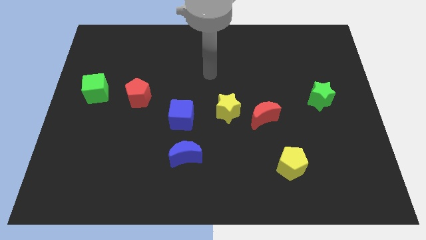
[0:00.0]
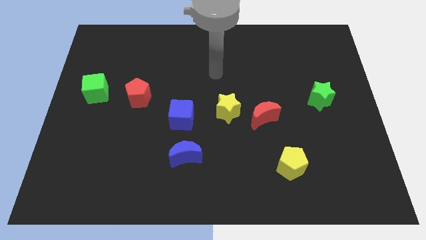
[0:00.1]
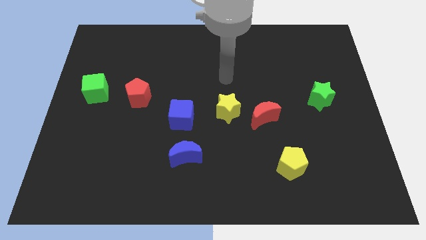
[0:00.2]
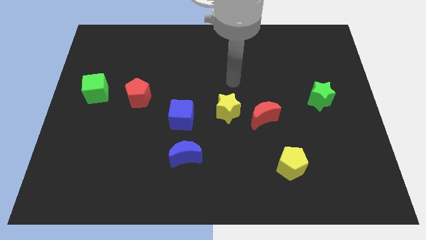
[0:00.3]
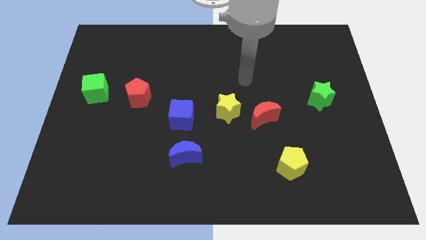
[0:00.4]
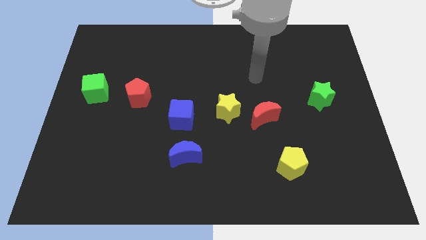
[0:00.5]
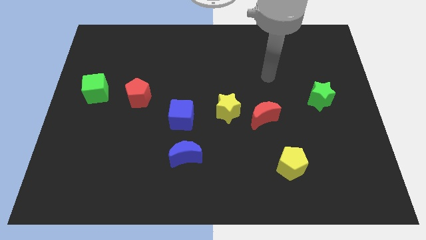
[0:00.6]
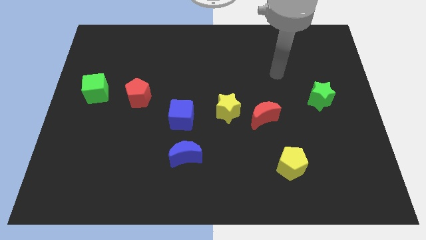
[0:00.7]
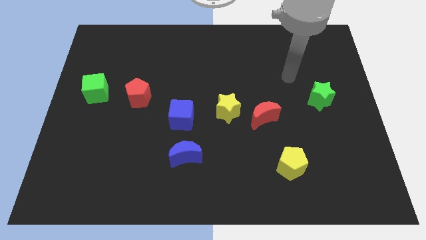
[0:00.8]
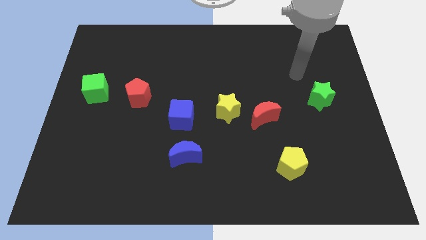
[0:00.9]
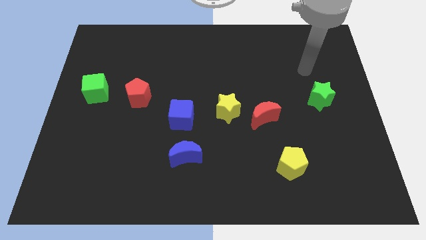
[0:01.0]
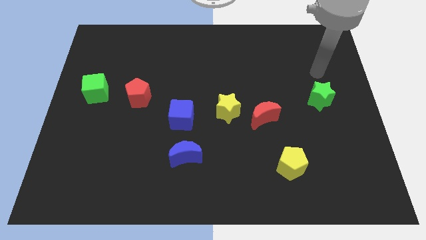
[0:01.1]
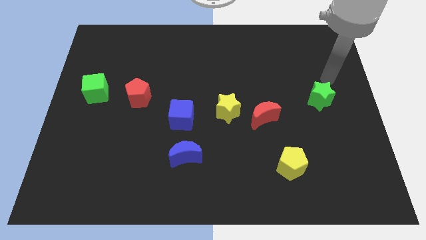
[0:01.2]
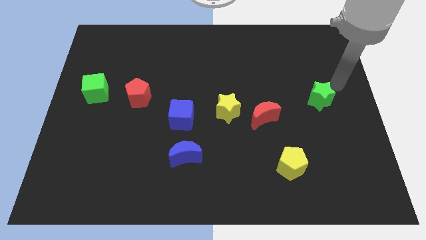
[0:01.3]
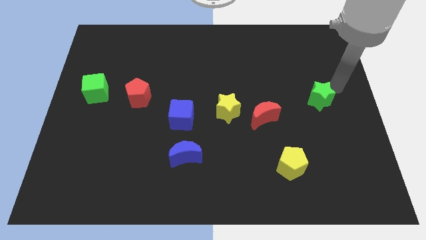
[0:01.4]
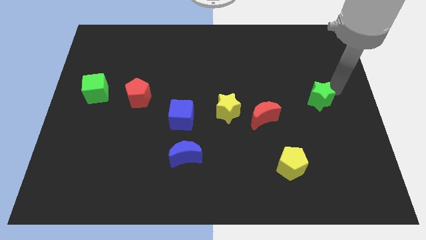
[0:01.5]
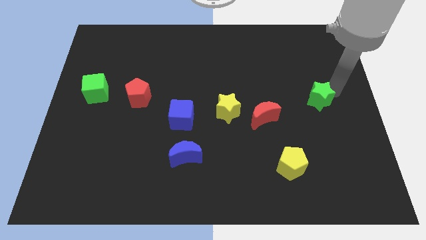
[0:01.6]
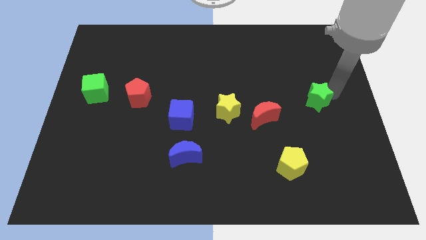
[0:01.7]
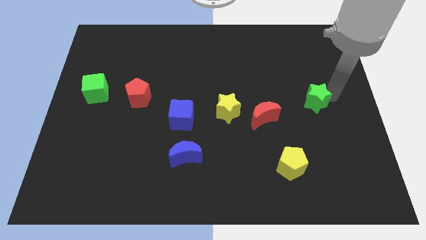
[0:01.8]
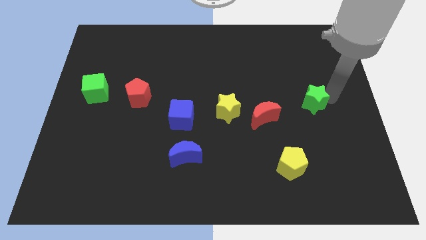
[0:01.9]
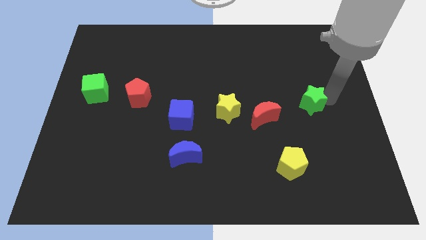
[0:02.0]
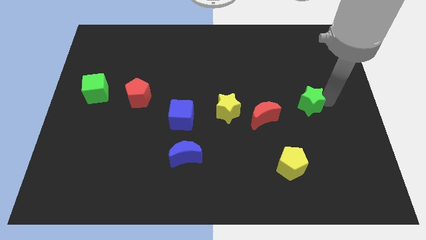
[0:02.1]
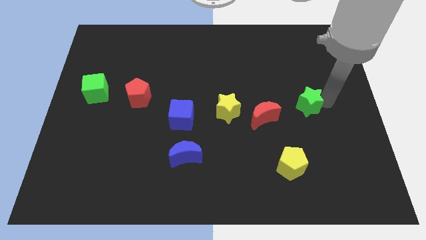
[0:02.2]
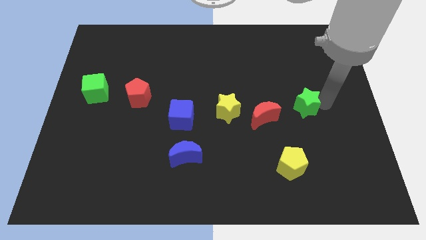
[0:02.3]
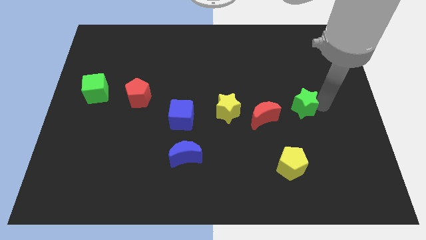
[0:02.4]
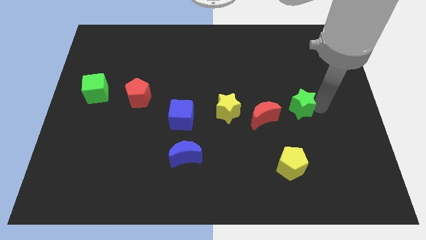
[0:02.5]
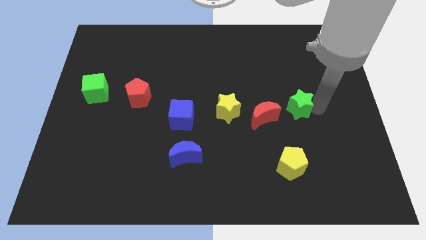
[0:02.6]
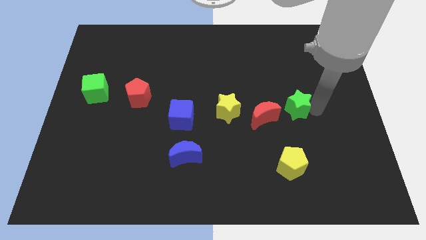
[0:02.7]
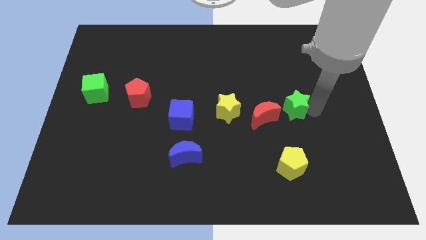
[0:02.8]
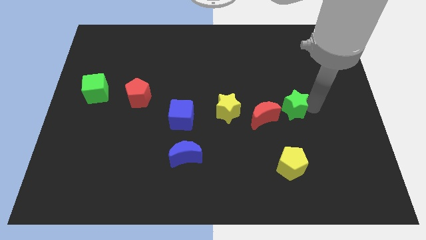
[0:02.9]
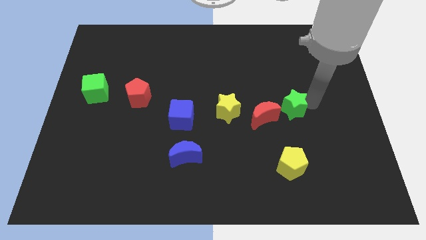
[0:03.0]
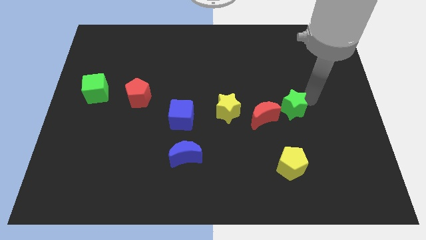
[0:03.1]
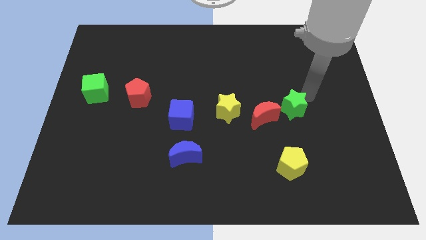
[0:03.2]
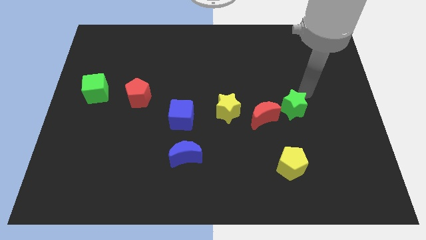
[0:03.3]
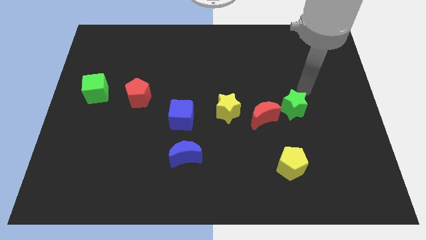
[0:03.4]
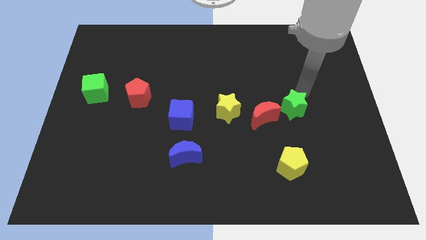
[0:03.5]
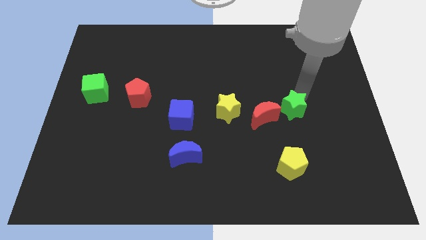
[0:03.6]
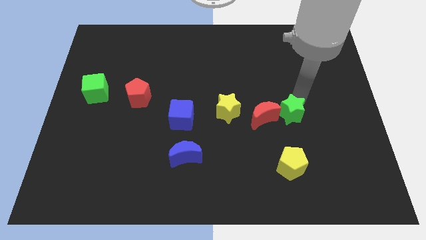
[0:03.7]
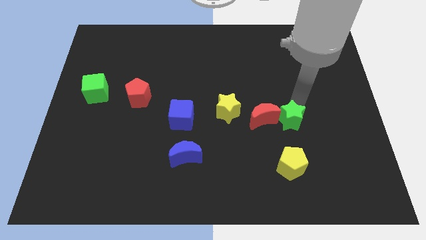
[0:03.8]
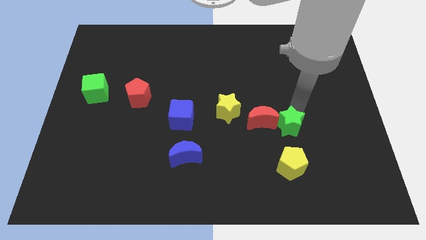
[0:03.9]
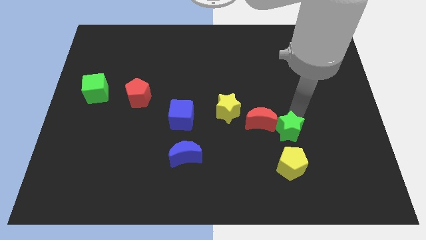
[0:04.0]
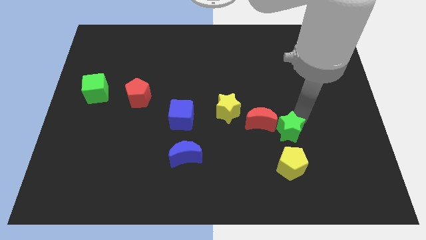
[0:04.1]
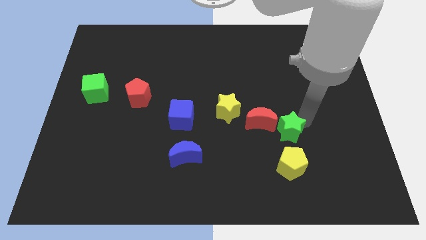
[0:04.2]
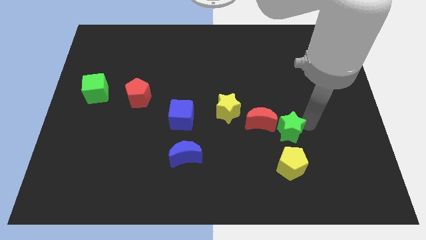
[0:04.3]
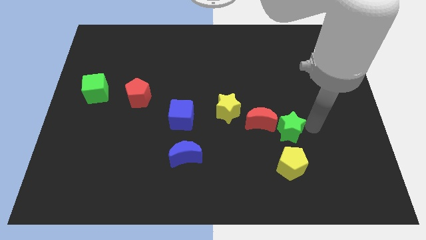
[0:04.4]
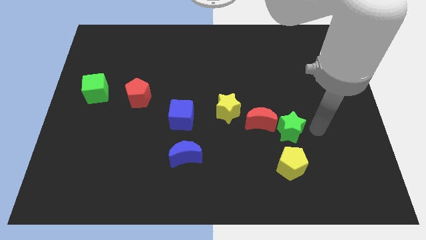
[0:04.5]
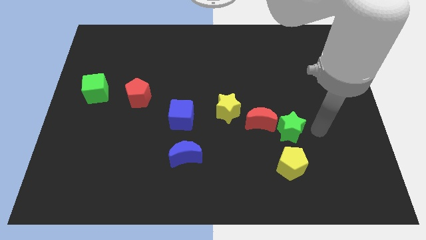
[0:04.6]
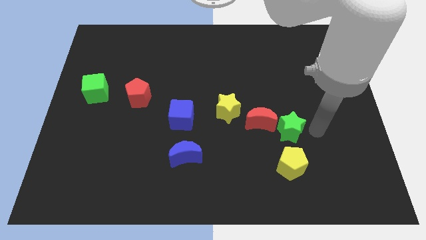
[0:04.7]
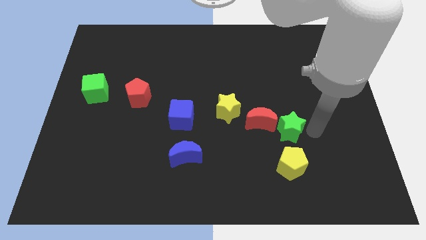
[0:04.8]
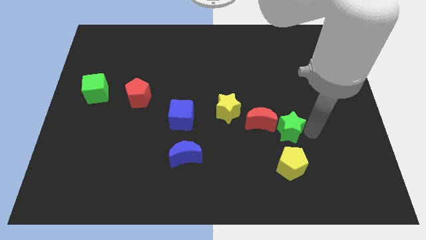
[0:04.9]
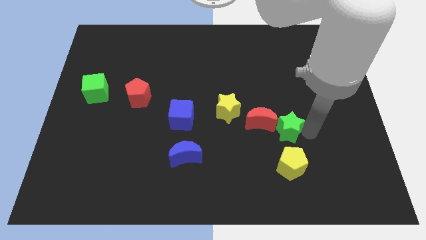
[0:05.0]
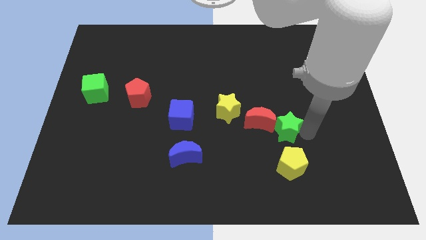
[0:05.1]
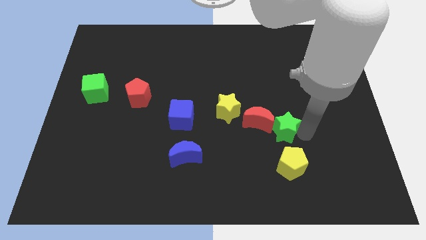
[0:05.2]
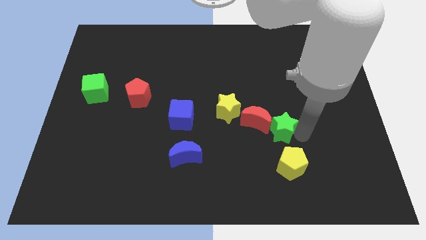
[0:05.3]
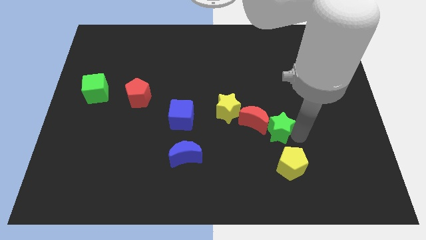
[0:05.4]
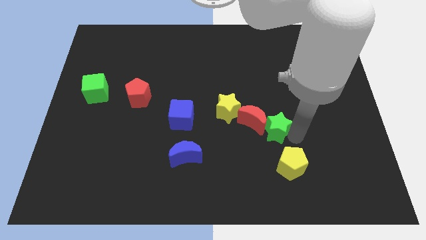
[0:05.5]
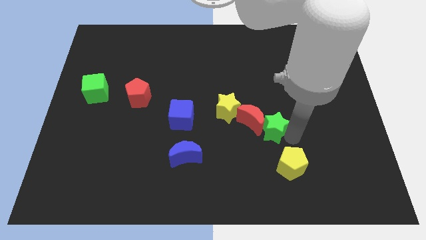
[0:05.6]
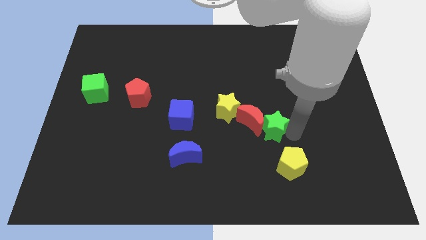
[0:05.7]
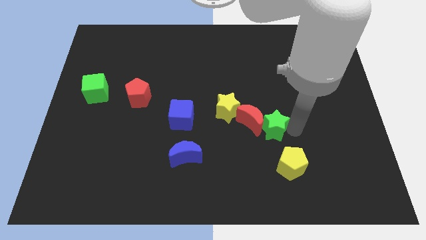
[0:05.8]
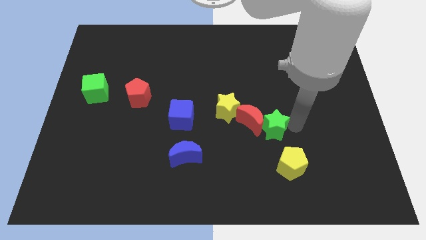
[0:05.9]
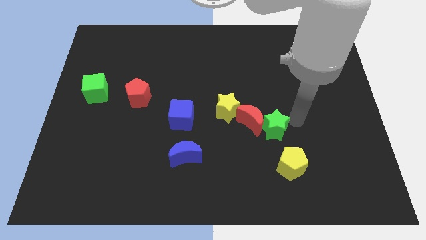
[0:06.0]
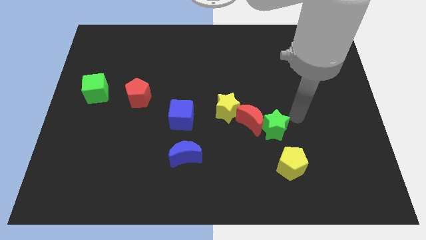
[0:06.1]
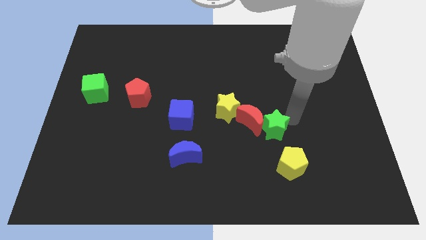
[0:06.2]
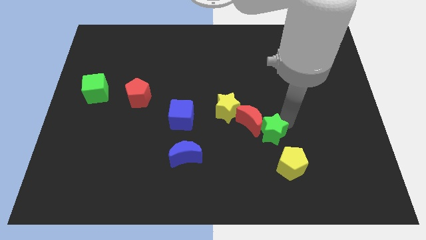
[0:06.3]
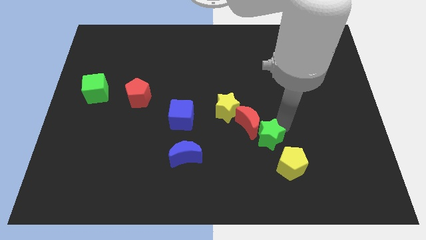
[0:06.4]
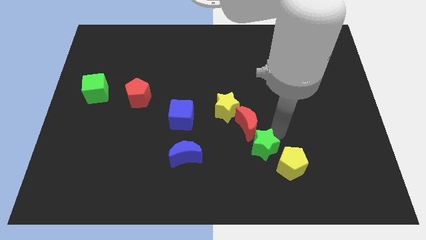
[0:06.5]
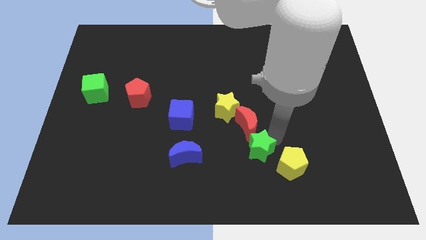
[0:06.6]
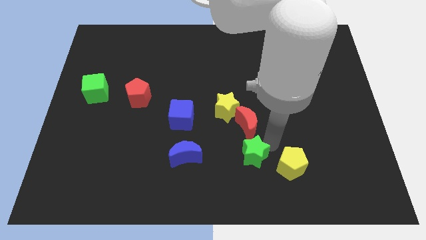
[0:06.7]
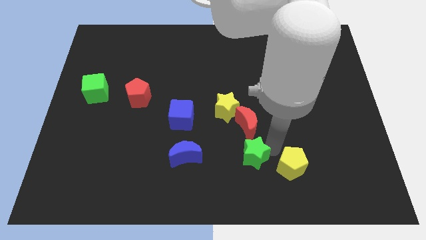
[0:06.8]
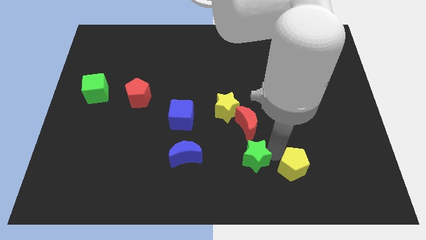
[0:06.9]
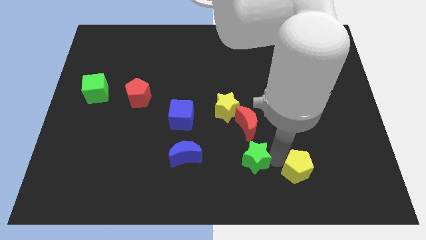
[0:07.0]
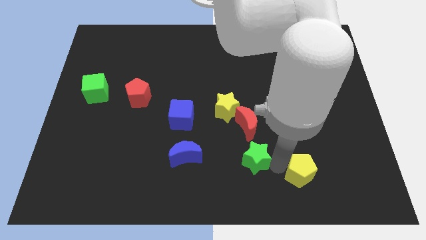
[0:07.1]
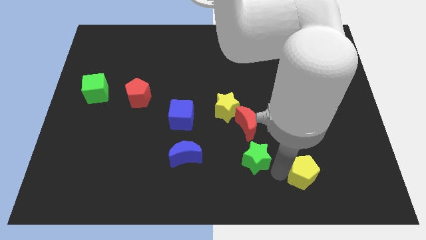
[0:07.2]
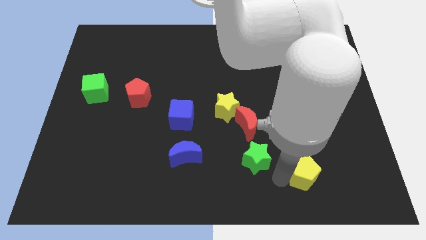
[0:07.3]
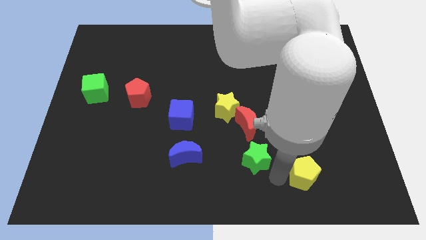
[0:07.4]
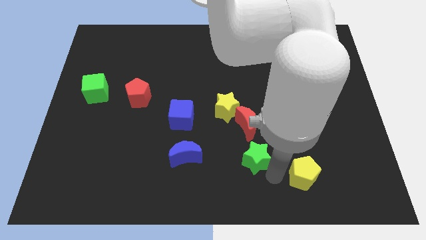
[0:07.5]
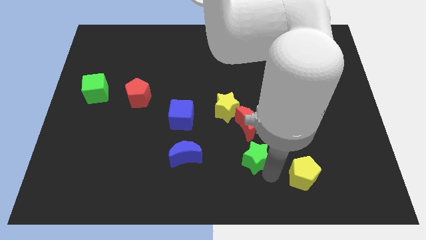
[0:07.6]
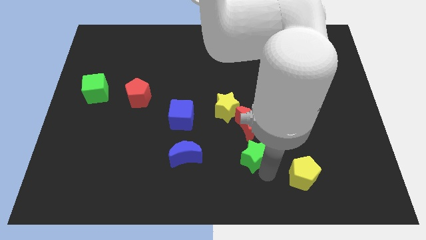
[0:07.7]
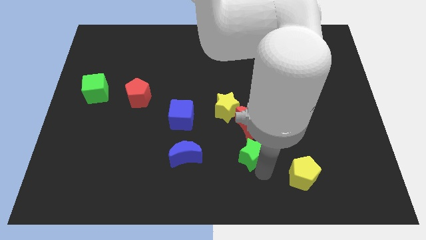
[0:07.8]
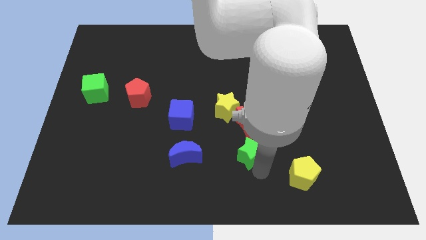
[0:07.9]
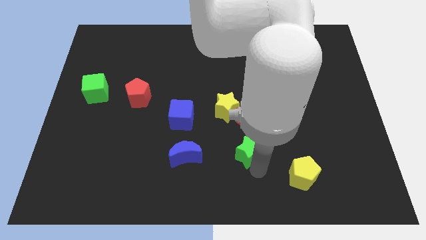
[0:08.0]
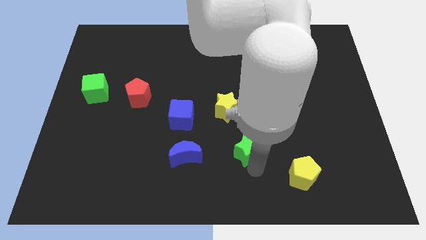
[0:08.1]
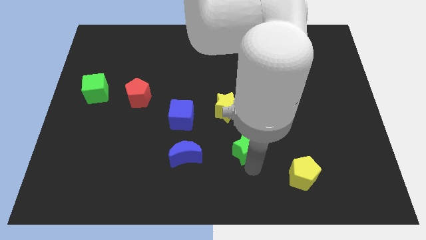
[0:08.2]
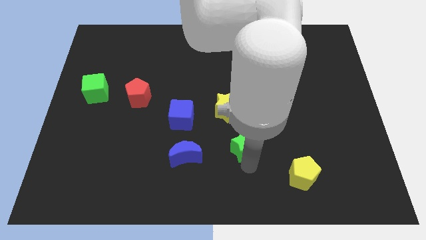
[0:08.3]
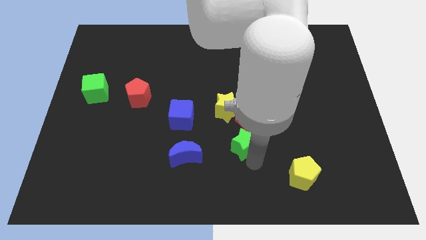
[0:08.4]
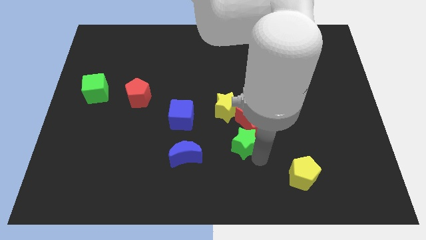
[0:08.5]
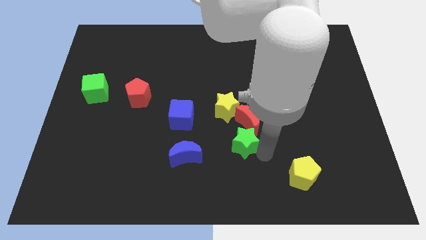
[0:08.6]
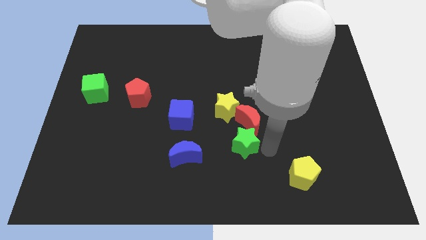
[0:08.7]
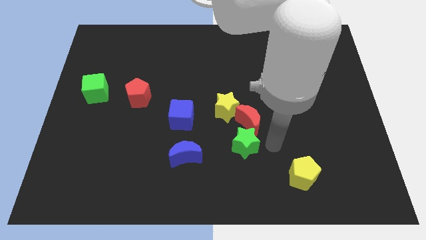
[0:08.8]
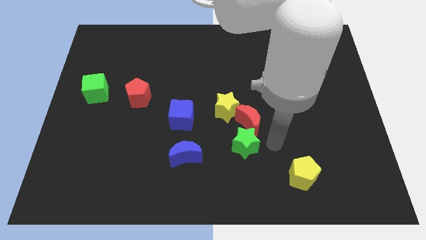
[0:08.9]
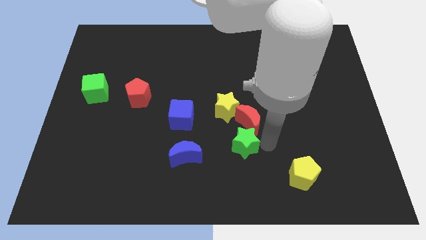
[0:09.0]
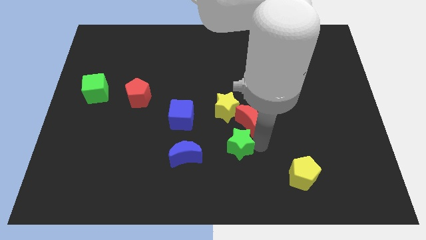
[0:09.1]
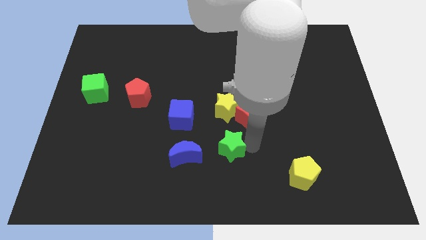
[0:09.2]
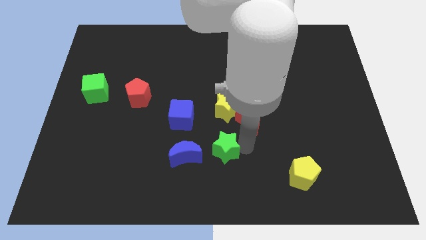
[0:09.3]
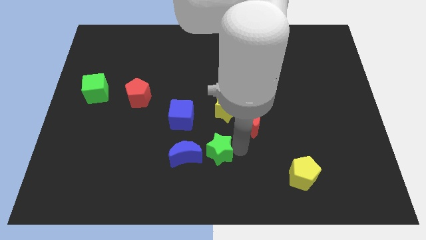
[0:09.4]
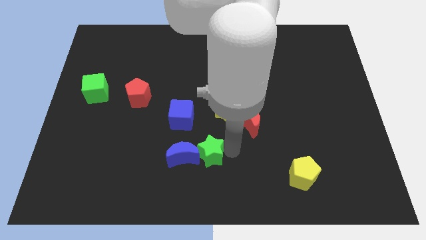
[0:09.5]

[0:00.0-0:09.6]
push the green star next to the blue moon
